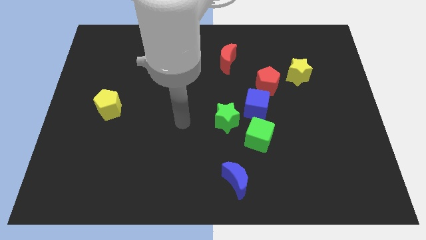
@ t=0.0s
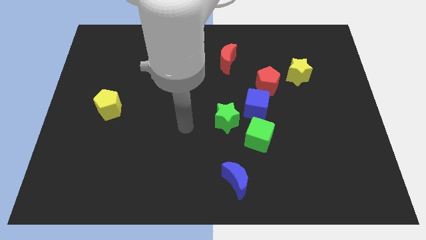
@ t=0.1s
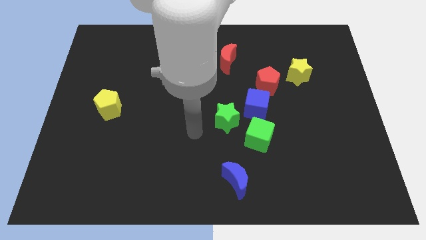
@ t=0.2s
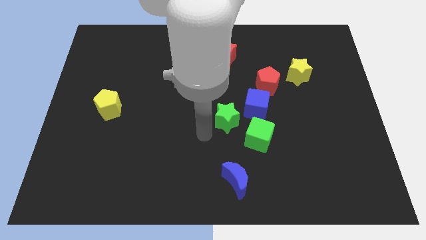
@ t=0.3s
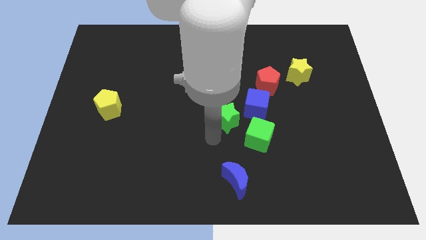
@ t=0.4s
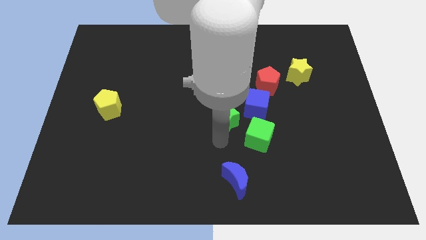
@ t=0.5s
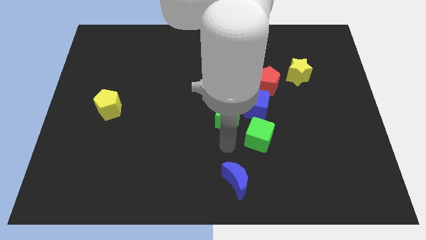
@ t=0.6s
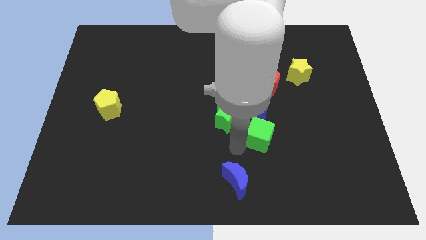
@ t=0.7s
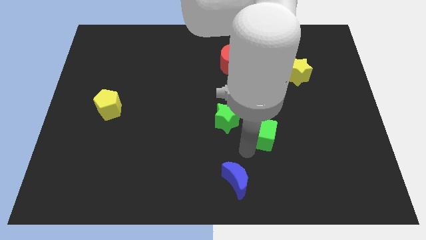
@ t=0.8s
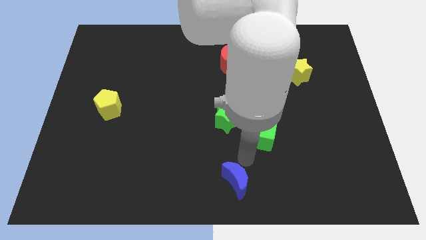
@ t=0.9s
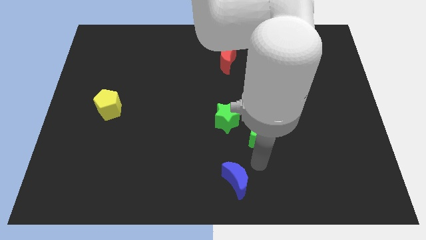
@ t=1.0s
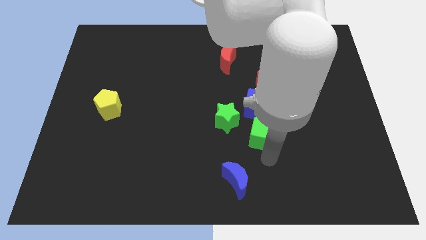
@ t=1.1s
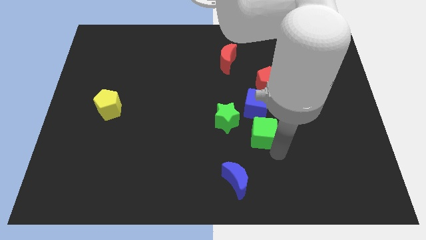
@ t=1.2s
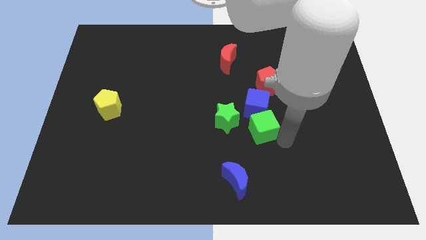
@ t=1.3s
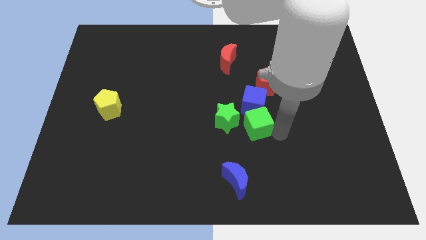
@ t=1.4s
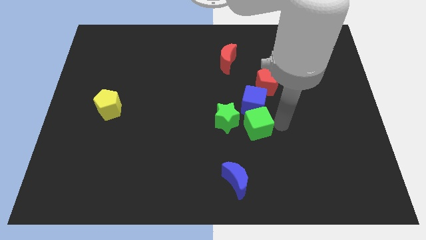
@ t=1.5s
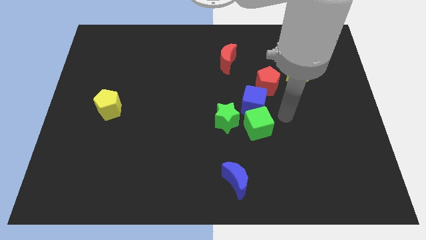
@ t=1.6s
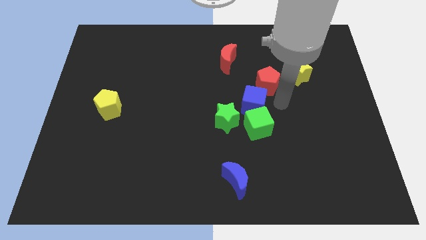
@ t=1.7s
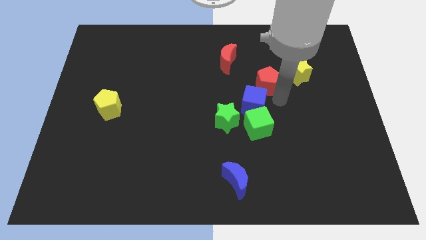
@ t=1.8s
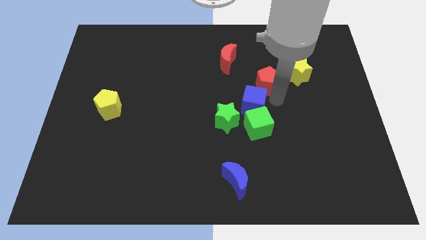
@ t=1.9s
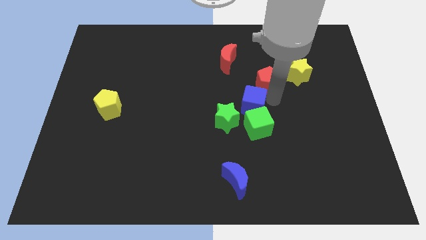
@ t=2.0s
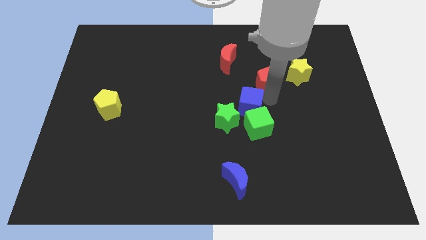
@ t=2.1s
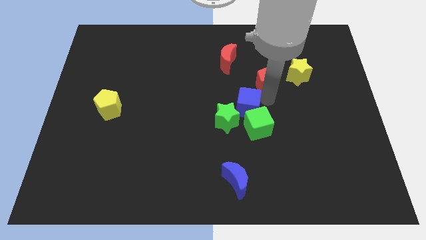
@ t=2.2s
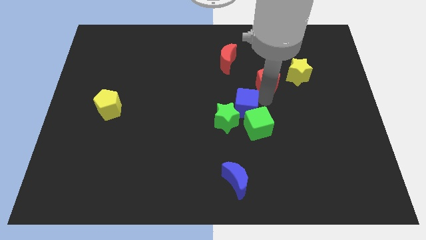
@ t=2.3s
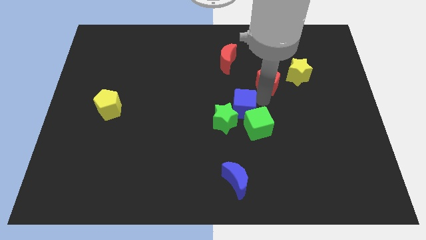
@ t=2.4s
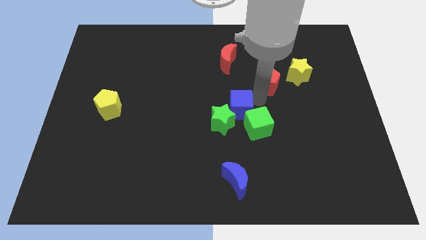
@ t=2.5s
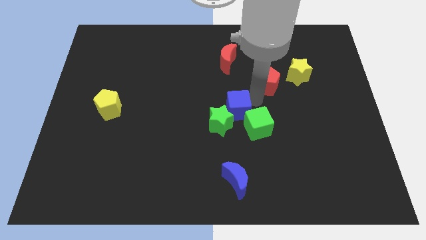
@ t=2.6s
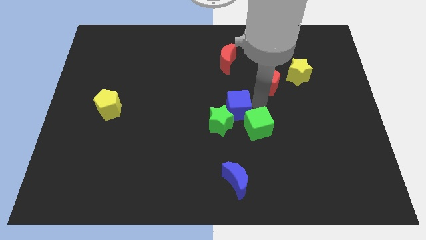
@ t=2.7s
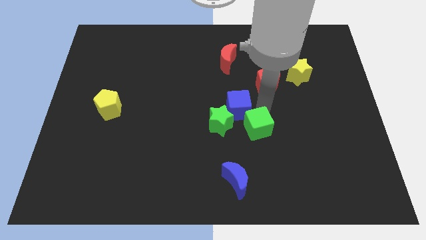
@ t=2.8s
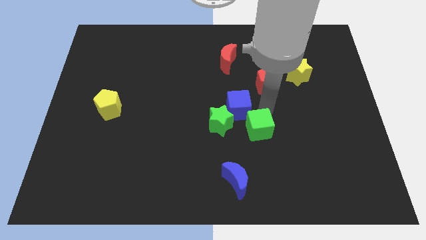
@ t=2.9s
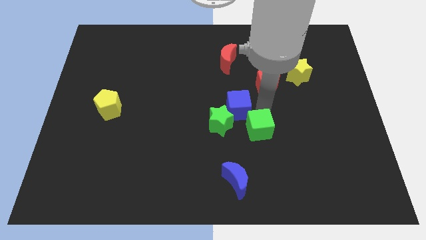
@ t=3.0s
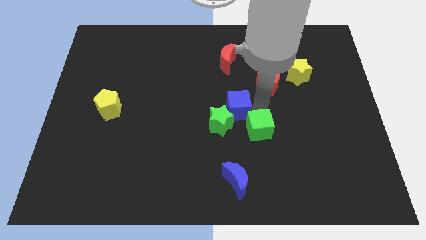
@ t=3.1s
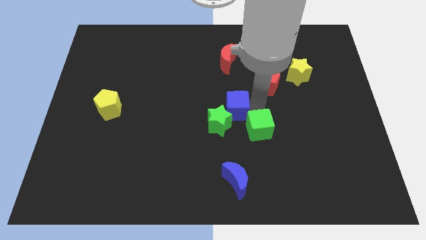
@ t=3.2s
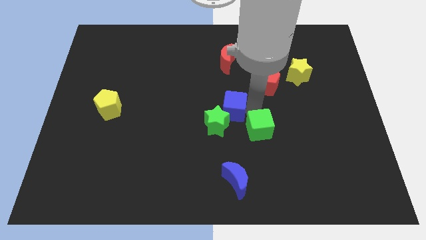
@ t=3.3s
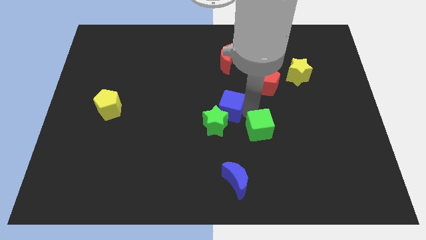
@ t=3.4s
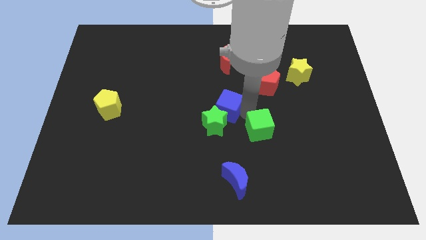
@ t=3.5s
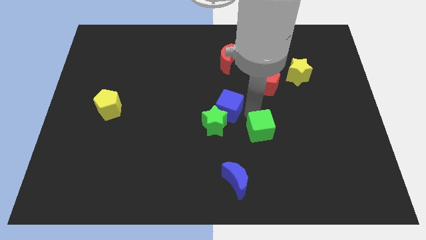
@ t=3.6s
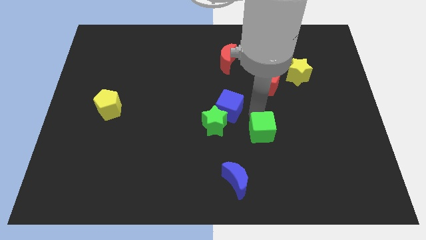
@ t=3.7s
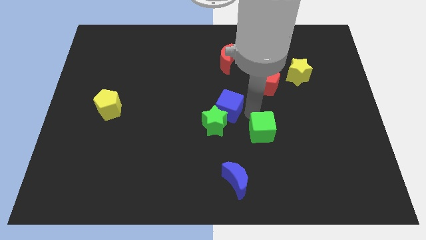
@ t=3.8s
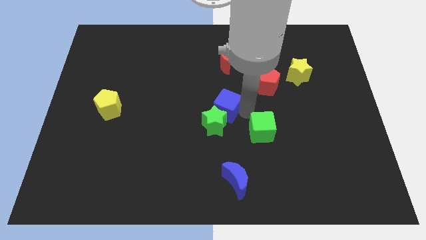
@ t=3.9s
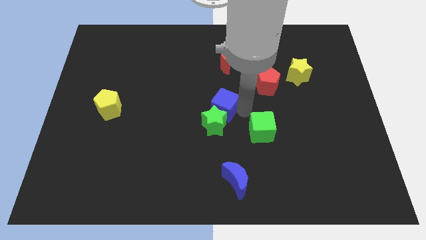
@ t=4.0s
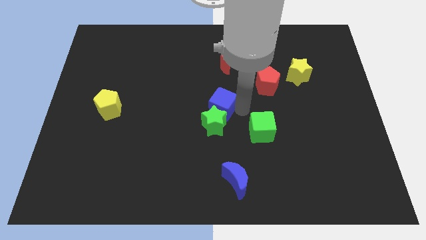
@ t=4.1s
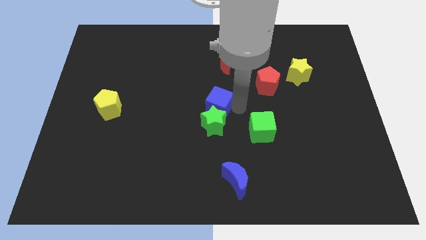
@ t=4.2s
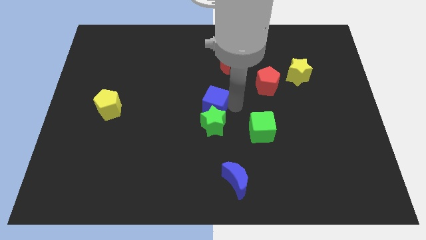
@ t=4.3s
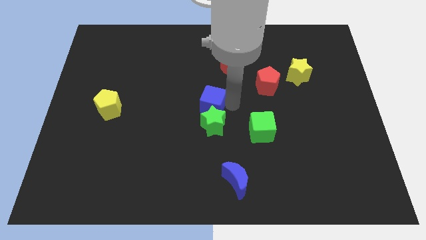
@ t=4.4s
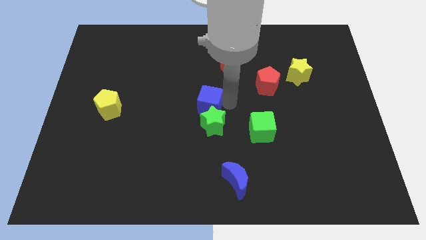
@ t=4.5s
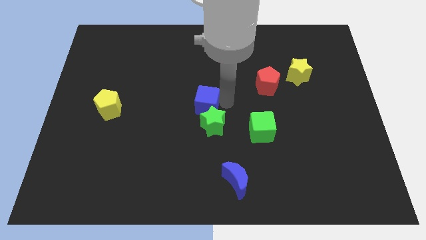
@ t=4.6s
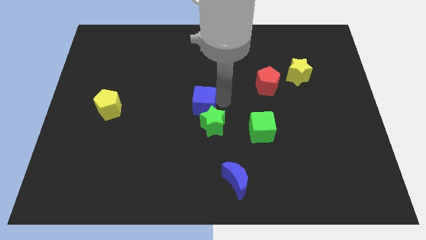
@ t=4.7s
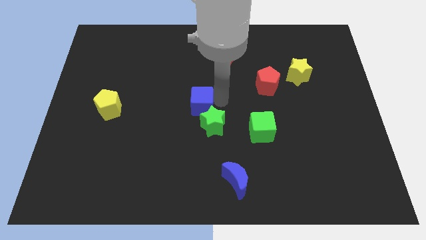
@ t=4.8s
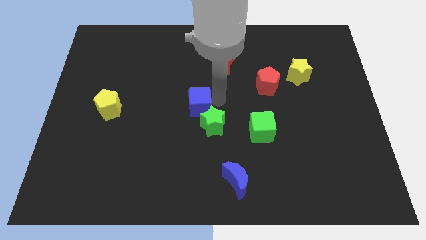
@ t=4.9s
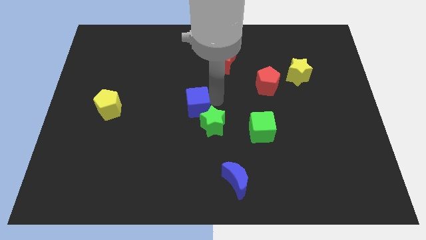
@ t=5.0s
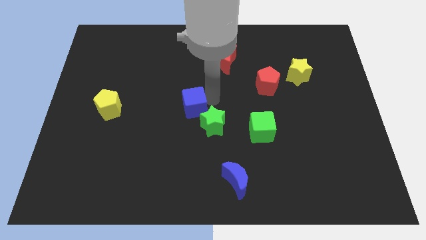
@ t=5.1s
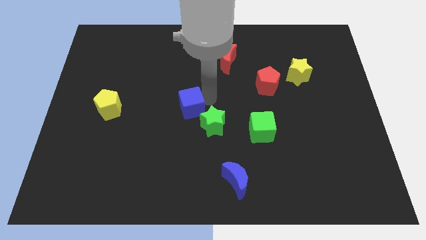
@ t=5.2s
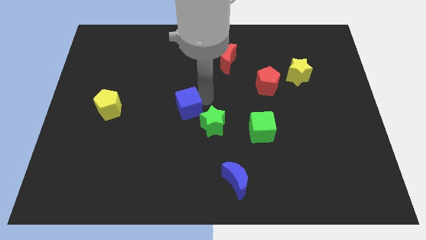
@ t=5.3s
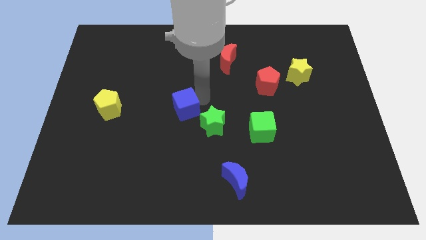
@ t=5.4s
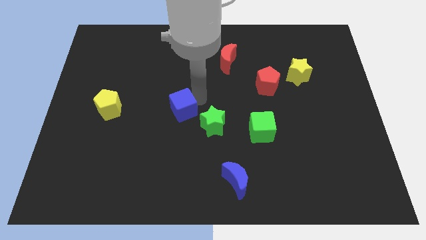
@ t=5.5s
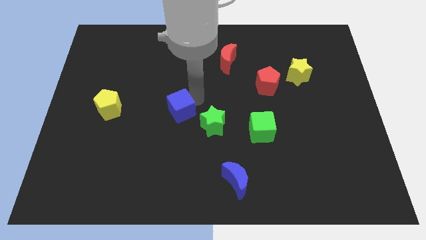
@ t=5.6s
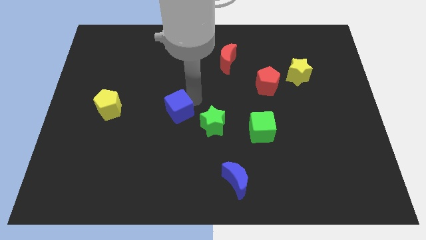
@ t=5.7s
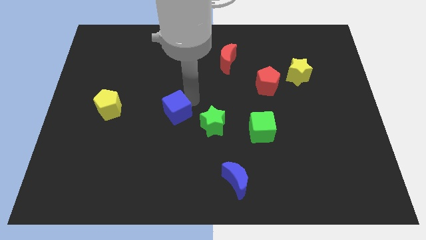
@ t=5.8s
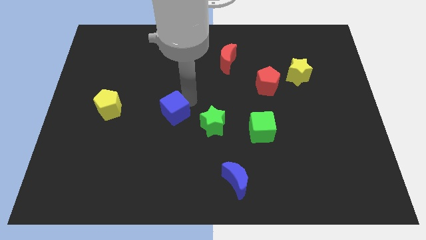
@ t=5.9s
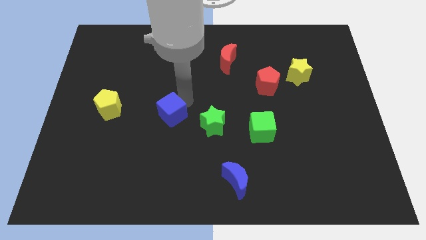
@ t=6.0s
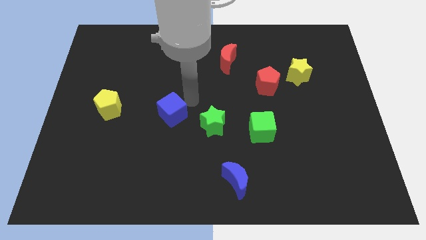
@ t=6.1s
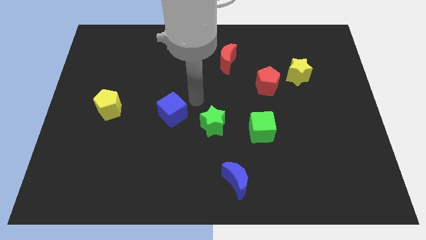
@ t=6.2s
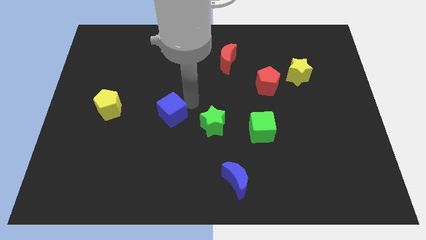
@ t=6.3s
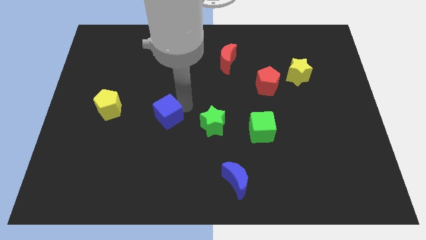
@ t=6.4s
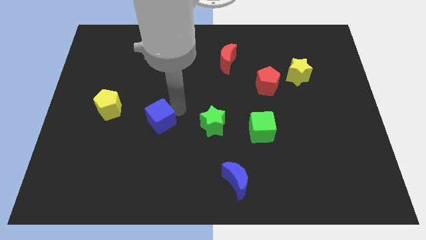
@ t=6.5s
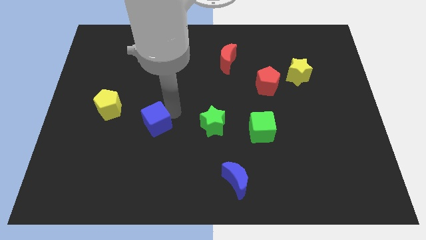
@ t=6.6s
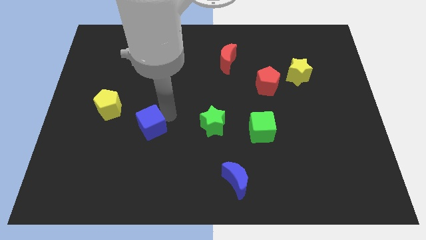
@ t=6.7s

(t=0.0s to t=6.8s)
move the blue cube to the bottom right side of the yellow pentagon

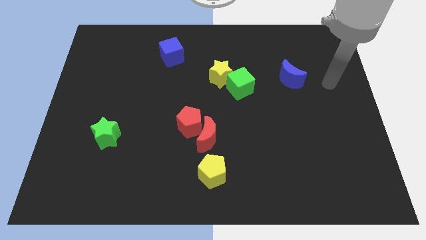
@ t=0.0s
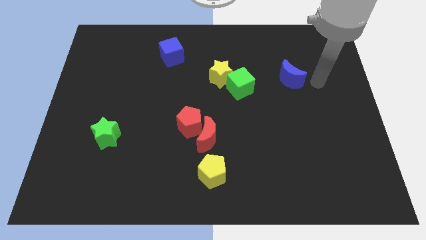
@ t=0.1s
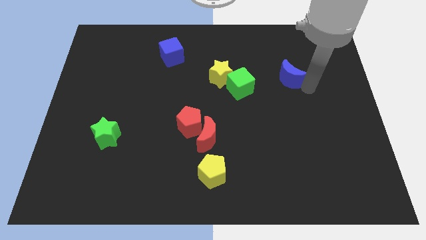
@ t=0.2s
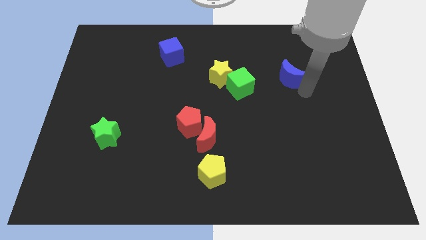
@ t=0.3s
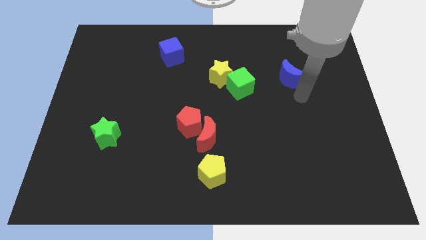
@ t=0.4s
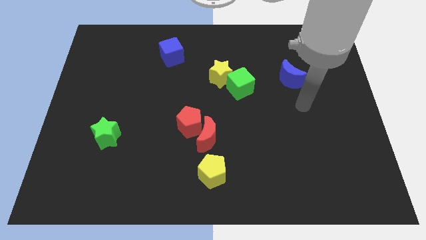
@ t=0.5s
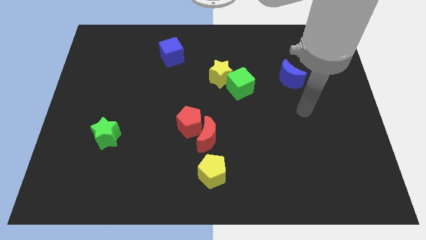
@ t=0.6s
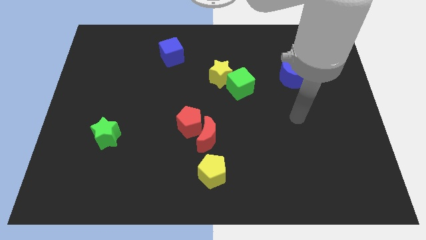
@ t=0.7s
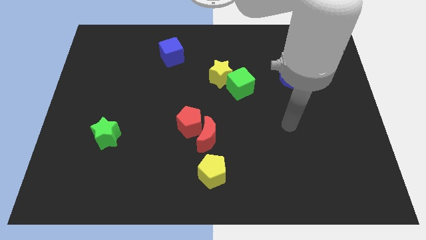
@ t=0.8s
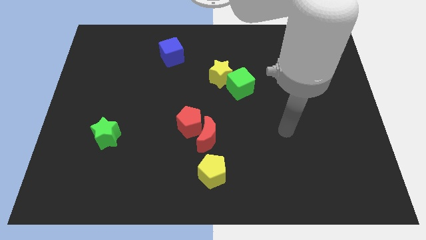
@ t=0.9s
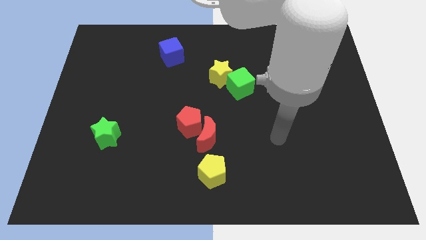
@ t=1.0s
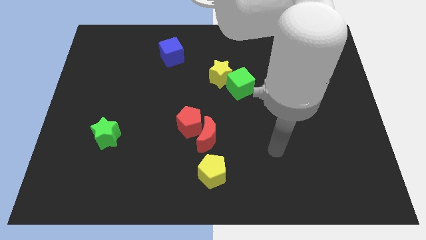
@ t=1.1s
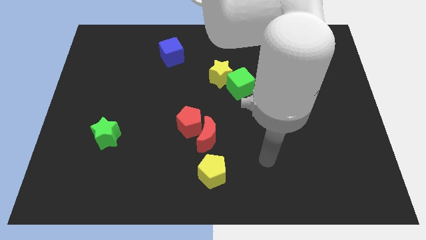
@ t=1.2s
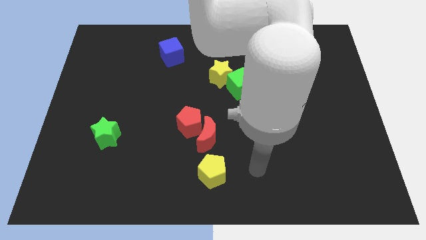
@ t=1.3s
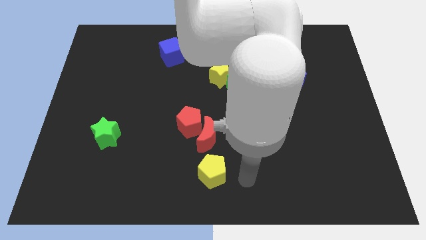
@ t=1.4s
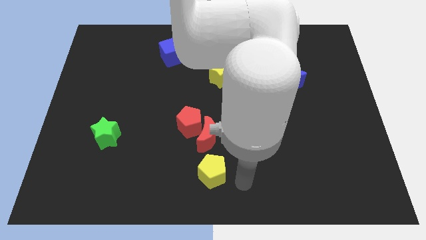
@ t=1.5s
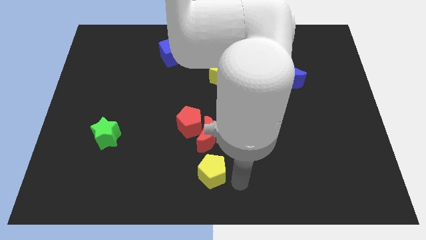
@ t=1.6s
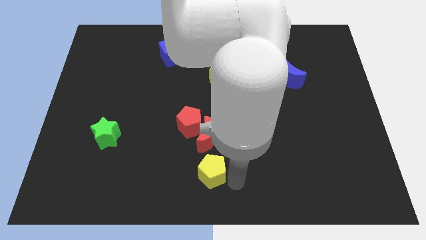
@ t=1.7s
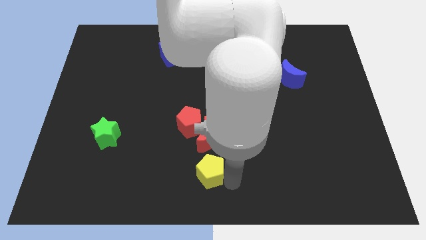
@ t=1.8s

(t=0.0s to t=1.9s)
slide the yellow pentagon to the bottom of the red pentagon
